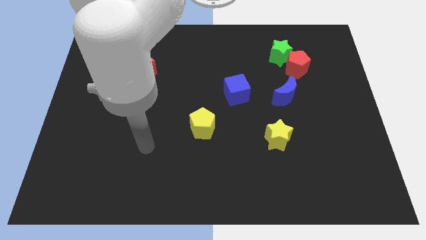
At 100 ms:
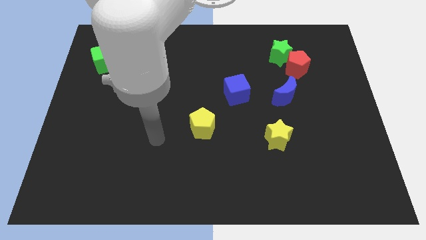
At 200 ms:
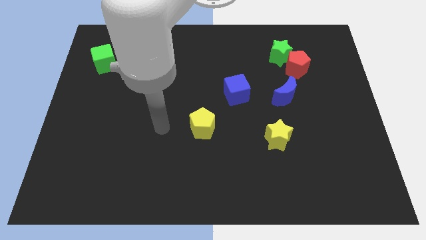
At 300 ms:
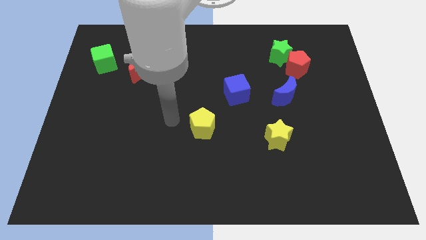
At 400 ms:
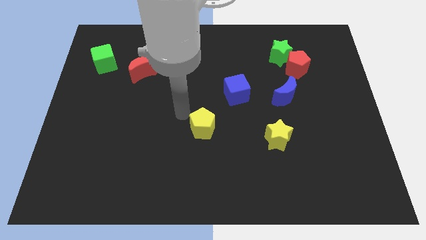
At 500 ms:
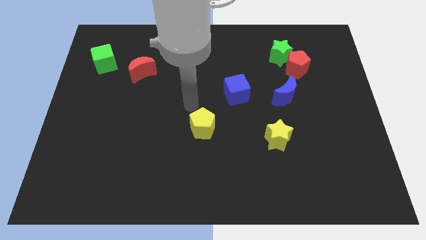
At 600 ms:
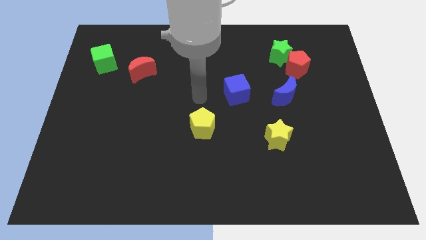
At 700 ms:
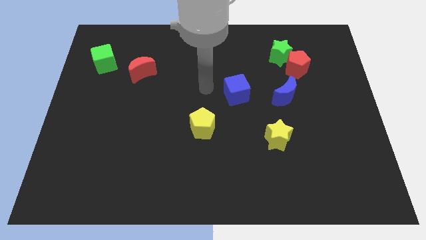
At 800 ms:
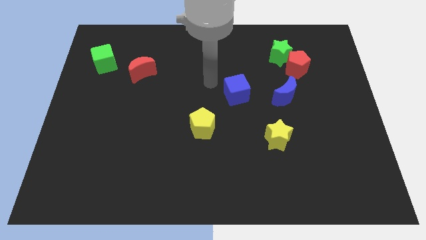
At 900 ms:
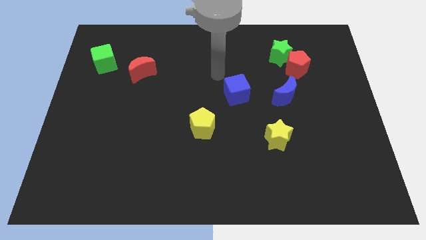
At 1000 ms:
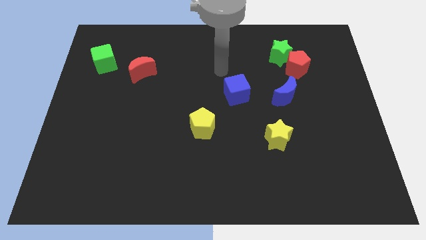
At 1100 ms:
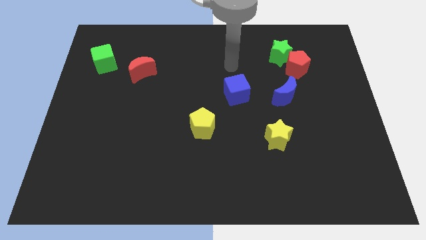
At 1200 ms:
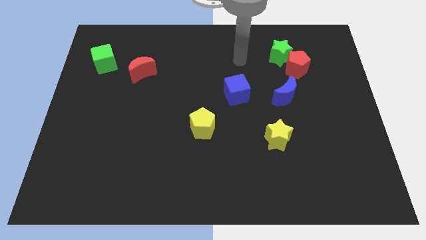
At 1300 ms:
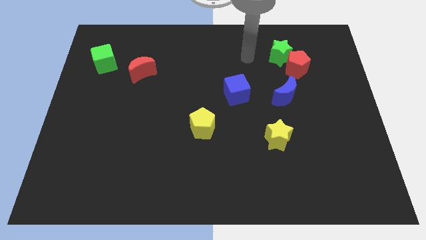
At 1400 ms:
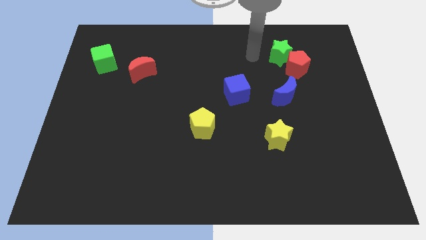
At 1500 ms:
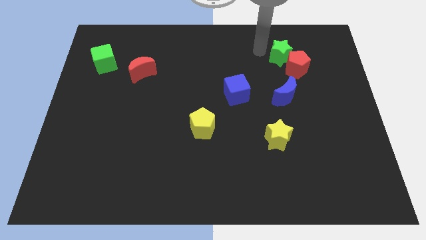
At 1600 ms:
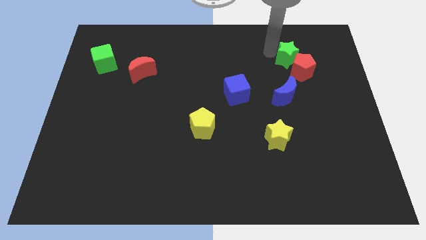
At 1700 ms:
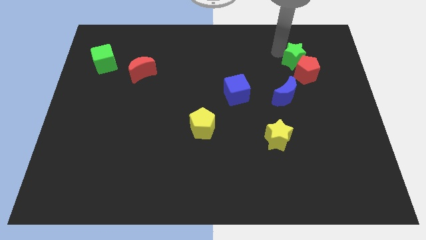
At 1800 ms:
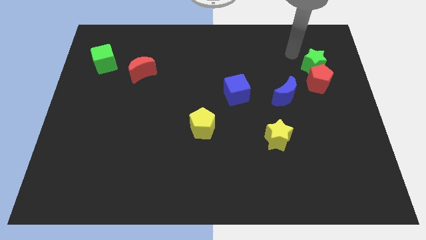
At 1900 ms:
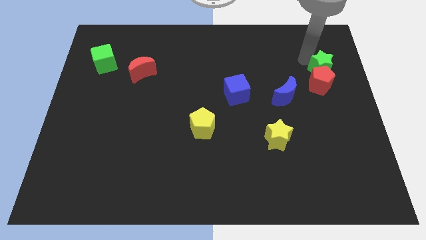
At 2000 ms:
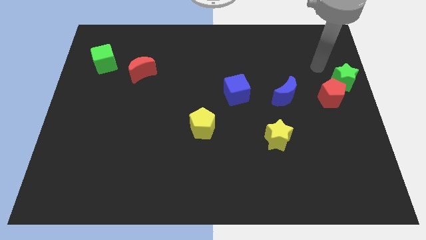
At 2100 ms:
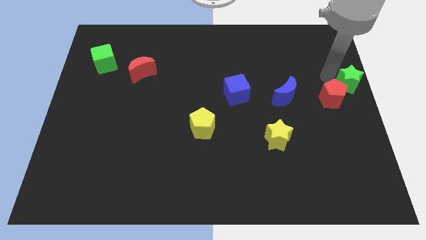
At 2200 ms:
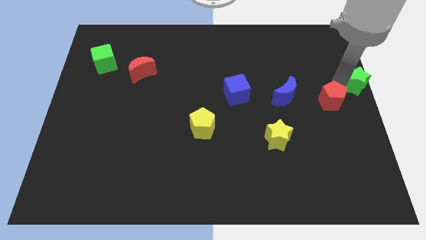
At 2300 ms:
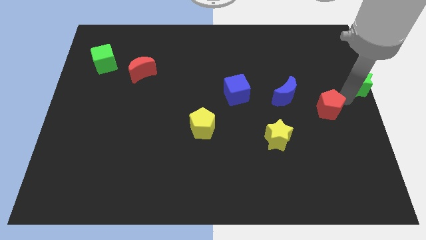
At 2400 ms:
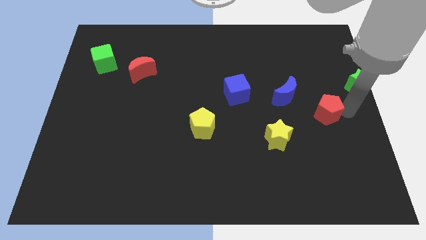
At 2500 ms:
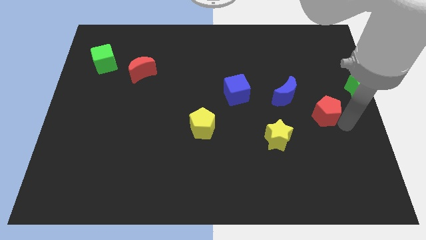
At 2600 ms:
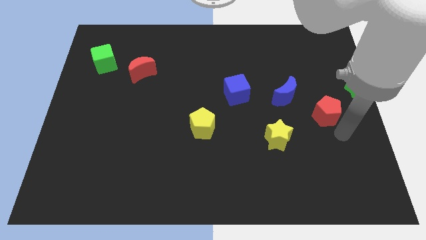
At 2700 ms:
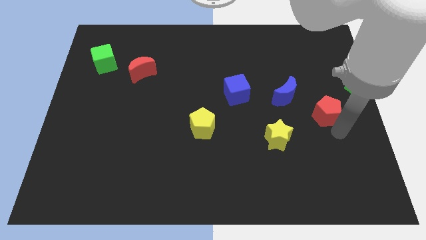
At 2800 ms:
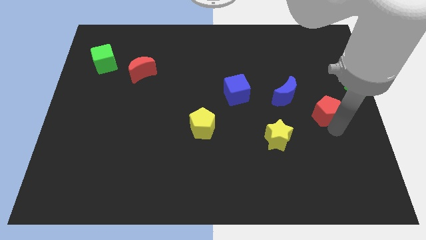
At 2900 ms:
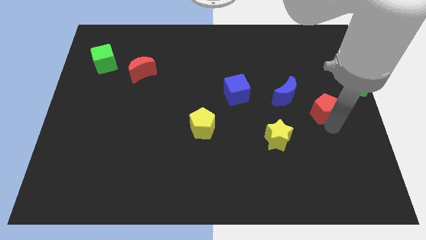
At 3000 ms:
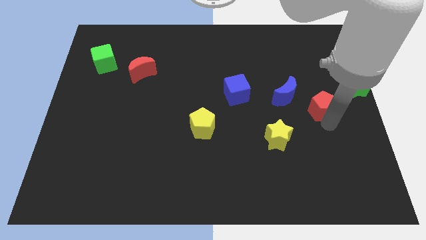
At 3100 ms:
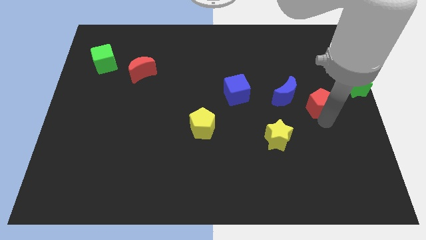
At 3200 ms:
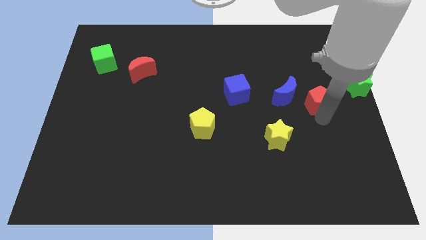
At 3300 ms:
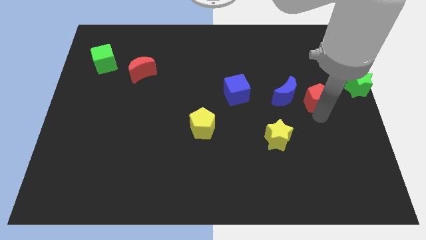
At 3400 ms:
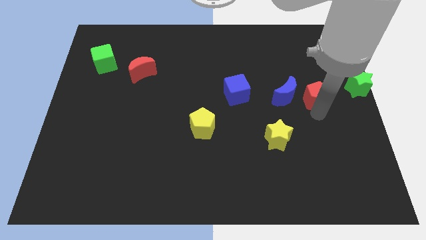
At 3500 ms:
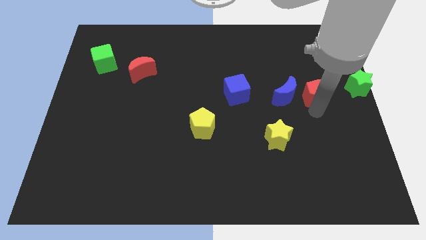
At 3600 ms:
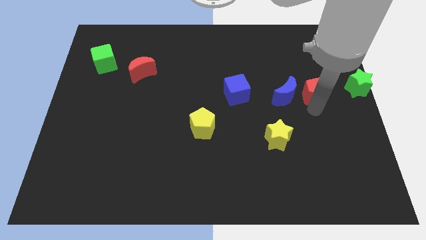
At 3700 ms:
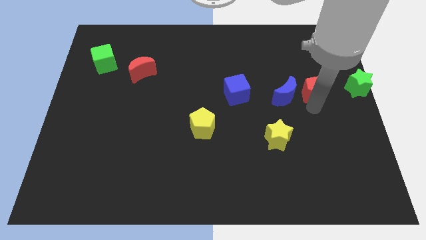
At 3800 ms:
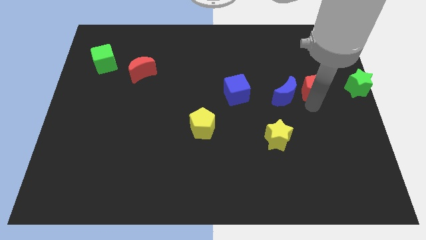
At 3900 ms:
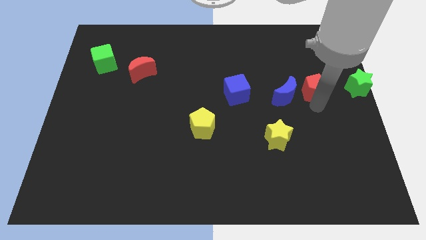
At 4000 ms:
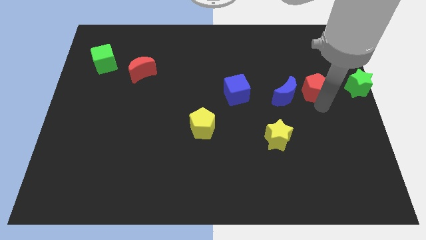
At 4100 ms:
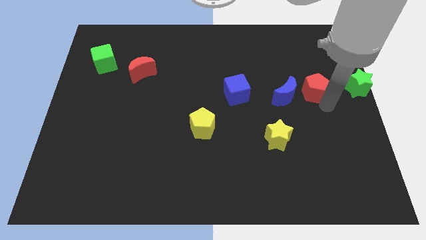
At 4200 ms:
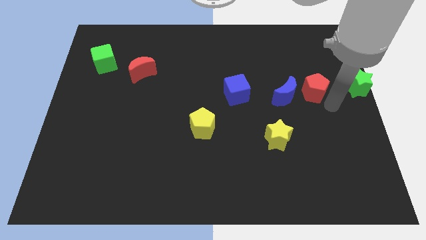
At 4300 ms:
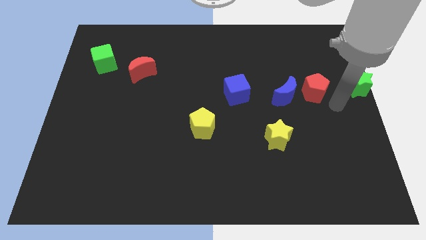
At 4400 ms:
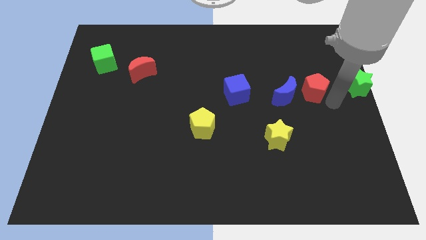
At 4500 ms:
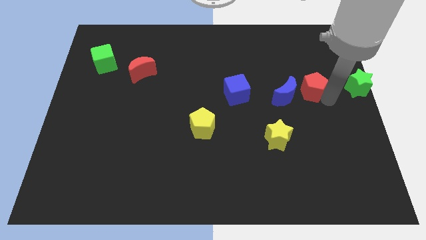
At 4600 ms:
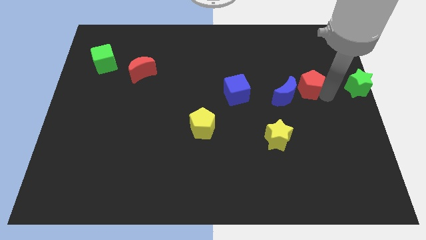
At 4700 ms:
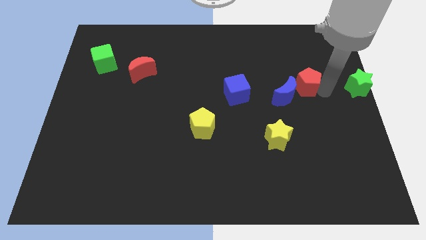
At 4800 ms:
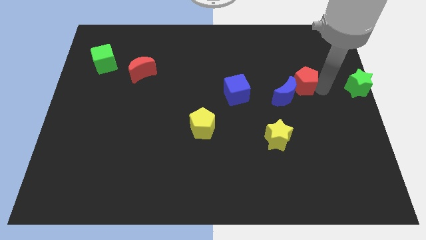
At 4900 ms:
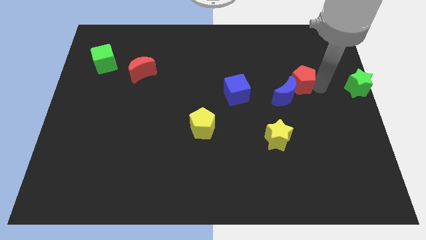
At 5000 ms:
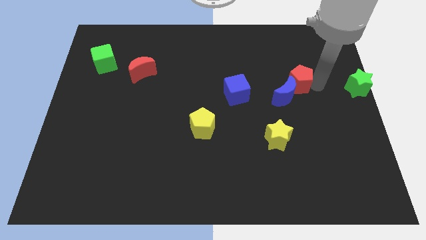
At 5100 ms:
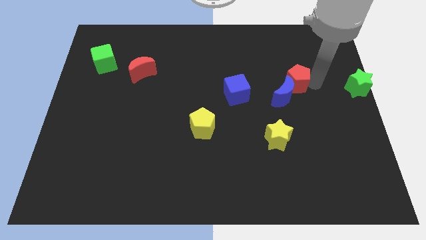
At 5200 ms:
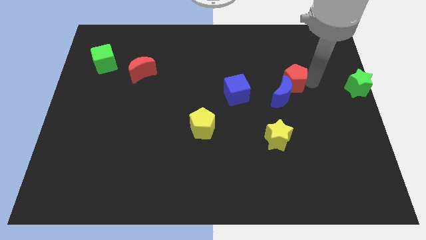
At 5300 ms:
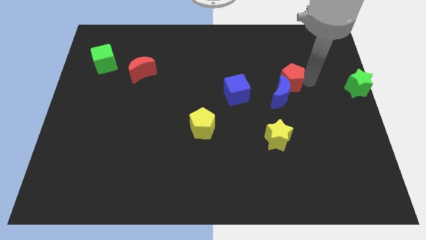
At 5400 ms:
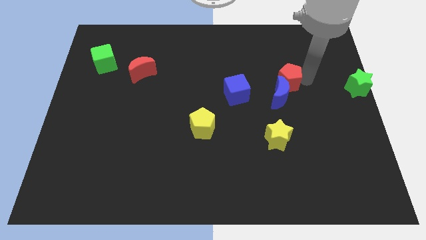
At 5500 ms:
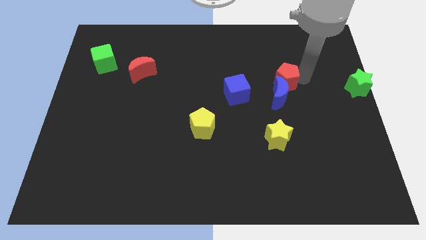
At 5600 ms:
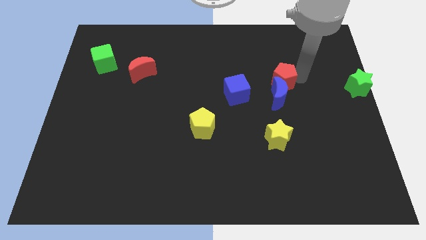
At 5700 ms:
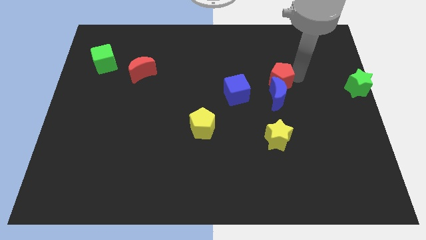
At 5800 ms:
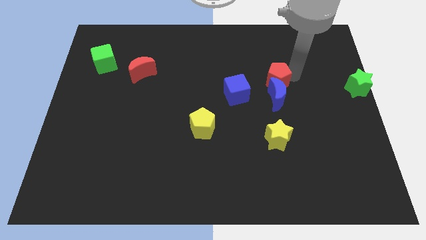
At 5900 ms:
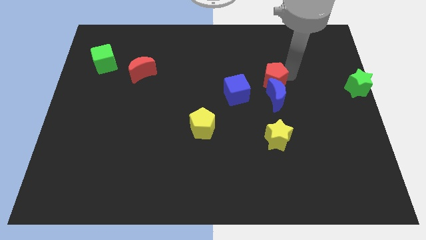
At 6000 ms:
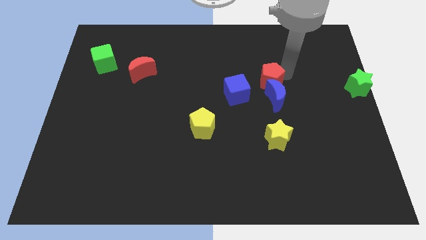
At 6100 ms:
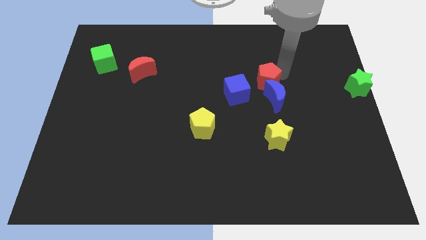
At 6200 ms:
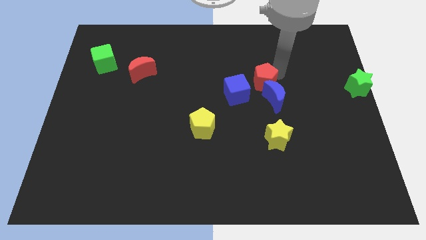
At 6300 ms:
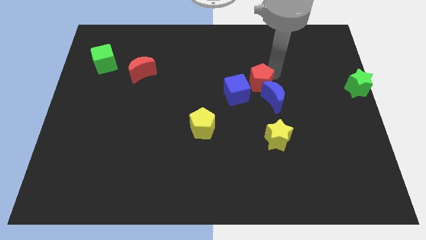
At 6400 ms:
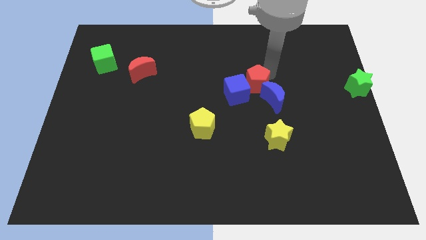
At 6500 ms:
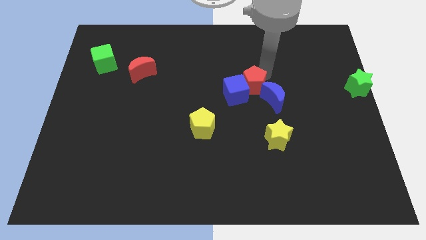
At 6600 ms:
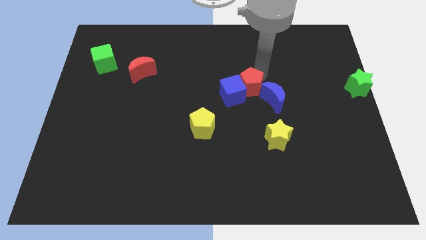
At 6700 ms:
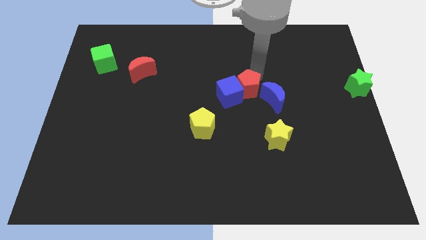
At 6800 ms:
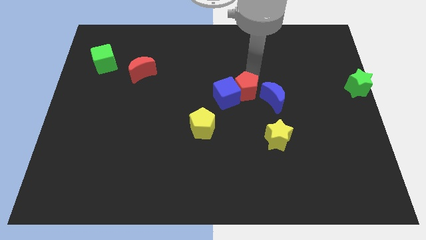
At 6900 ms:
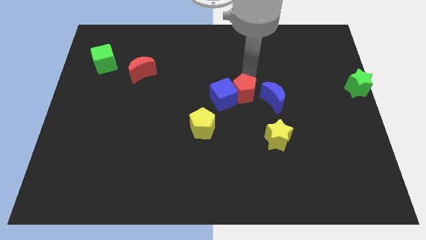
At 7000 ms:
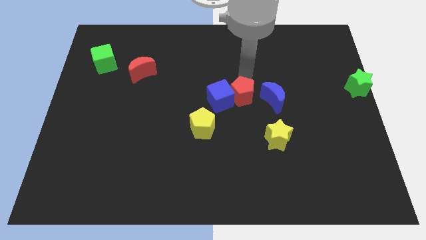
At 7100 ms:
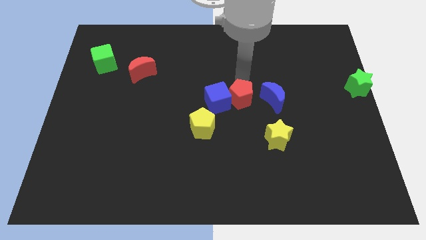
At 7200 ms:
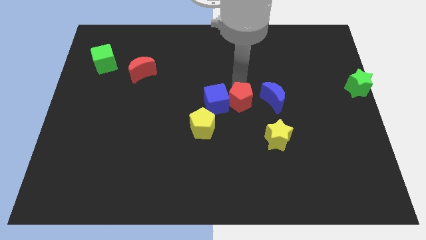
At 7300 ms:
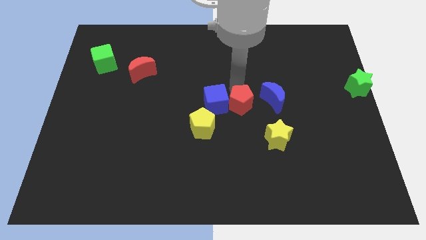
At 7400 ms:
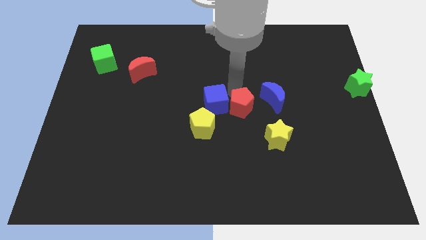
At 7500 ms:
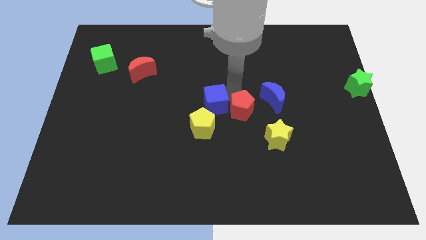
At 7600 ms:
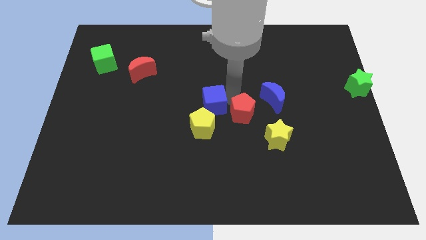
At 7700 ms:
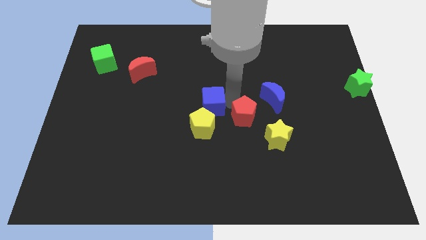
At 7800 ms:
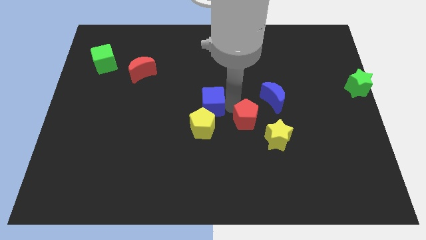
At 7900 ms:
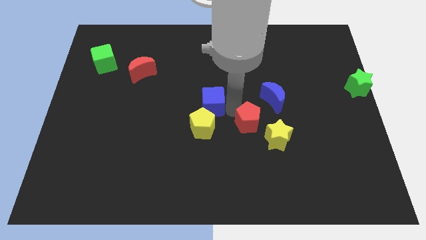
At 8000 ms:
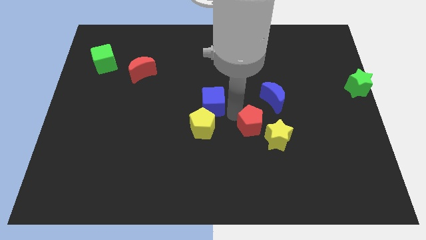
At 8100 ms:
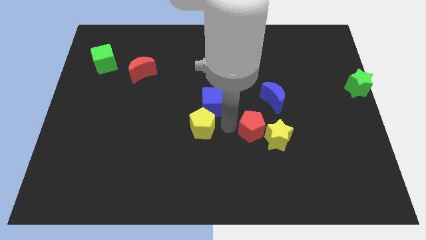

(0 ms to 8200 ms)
move the red pentagon to the yellow star
